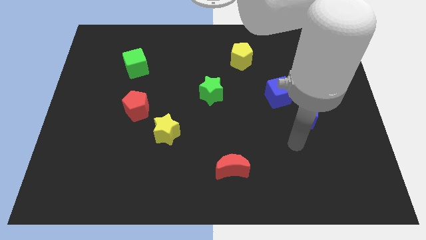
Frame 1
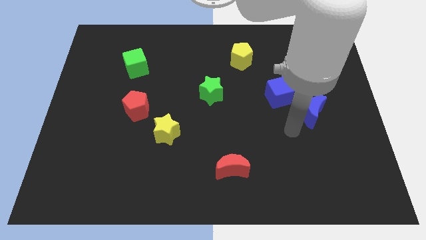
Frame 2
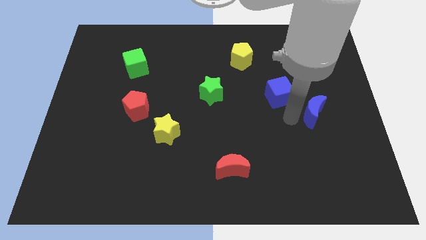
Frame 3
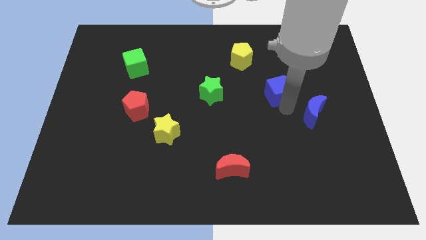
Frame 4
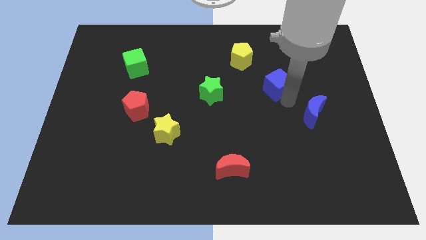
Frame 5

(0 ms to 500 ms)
separate the blue moon from the blue cube

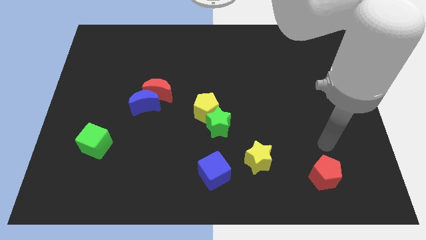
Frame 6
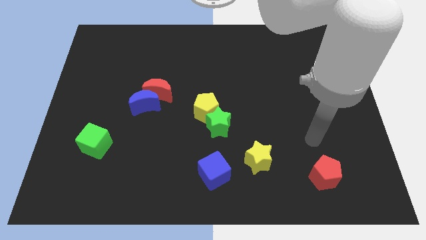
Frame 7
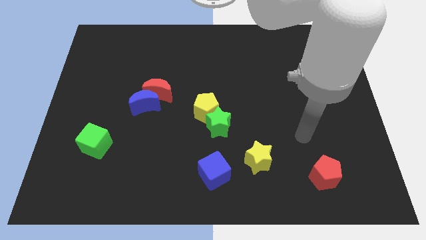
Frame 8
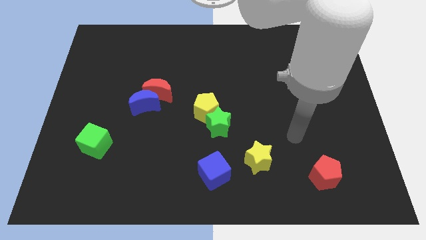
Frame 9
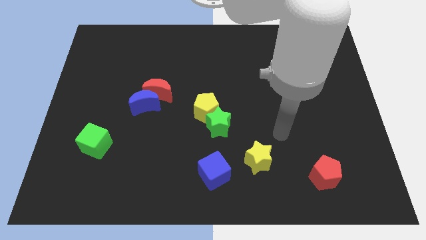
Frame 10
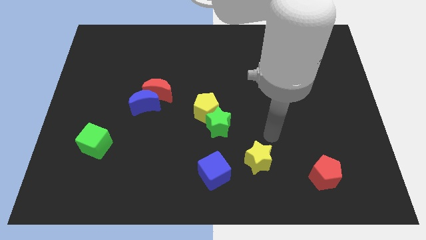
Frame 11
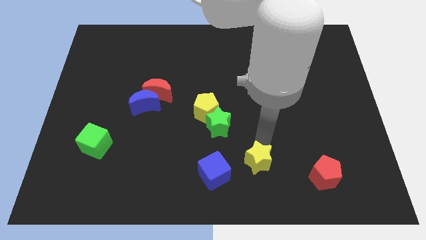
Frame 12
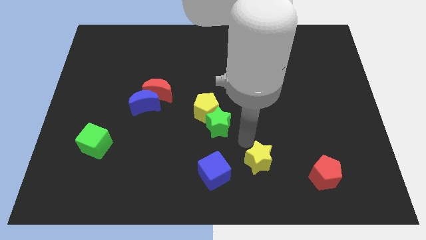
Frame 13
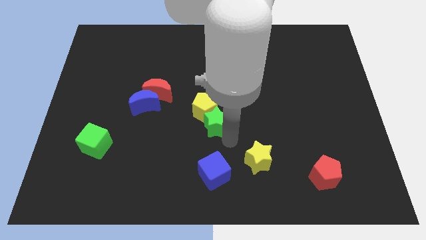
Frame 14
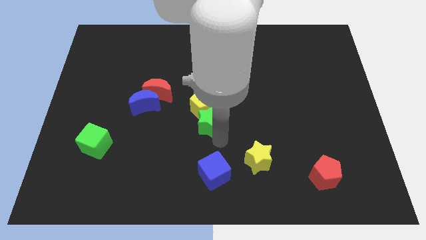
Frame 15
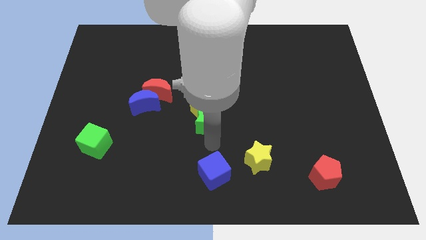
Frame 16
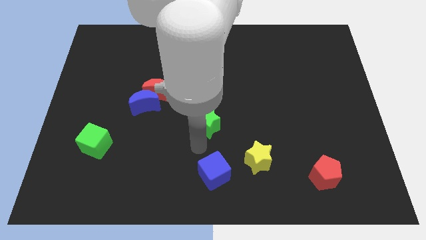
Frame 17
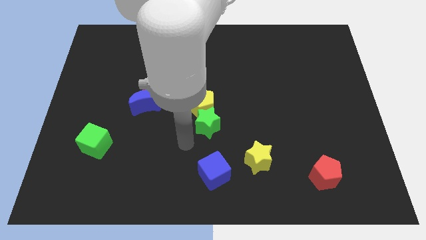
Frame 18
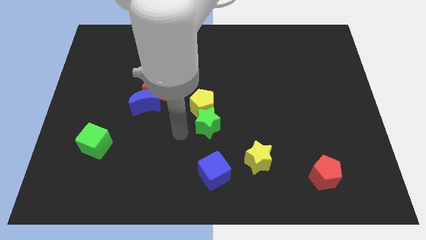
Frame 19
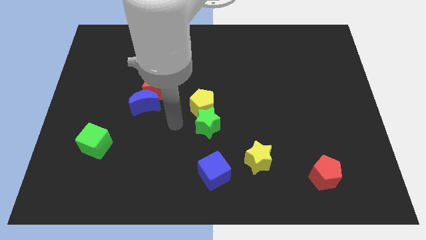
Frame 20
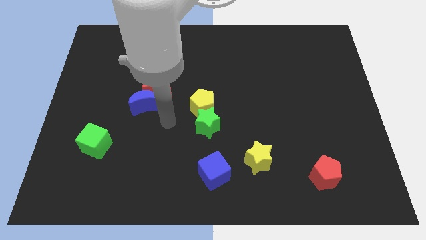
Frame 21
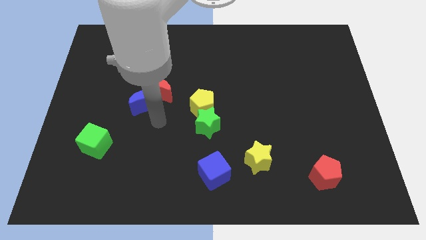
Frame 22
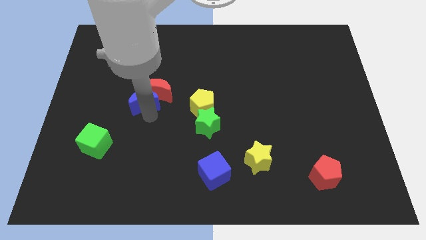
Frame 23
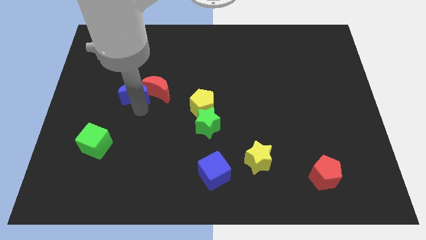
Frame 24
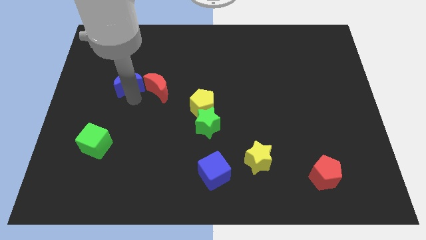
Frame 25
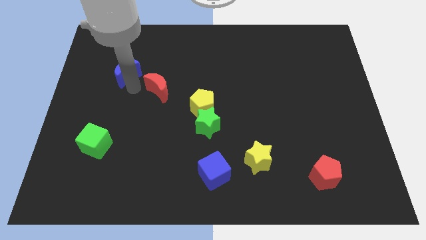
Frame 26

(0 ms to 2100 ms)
move the red moon away from the blue moon

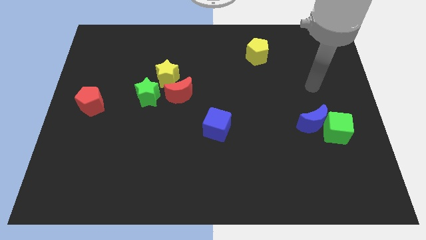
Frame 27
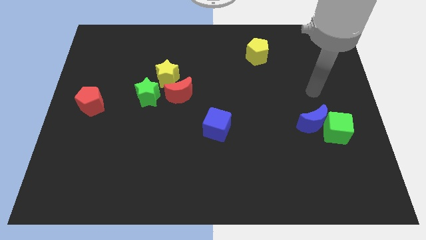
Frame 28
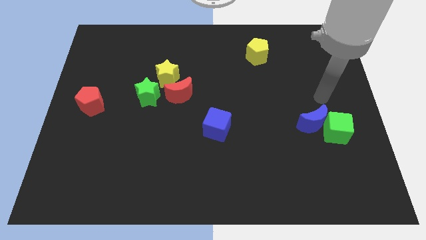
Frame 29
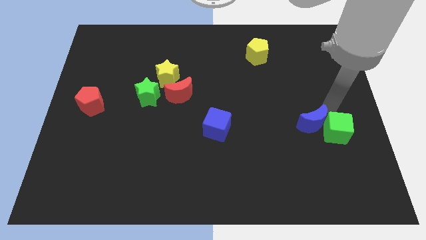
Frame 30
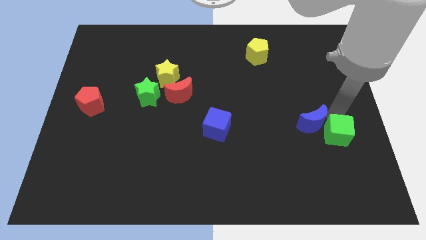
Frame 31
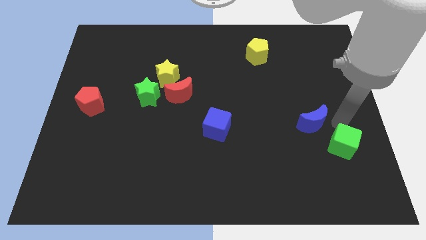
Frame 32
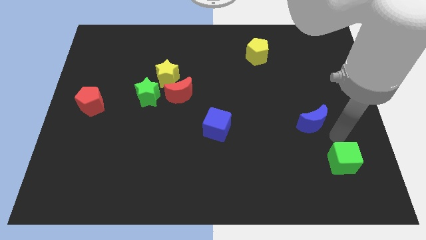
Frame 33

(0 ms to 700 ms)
move the blue moon away from the green cube

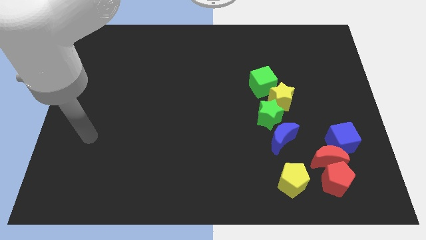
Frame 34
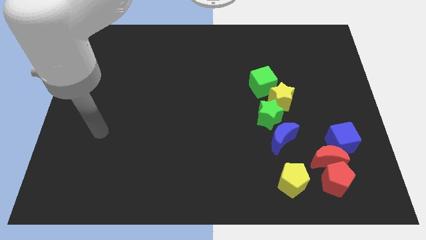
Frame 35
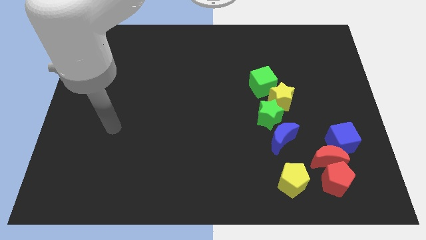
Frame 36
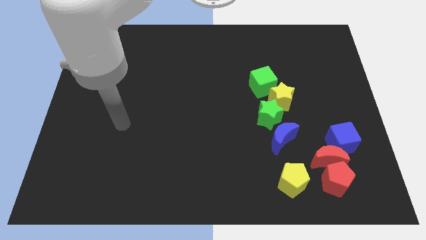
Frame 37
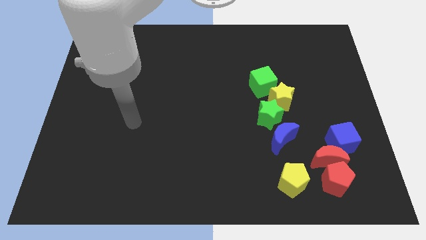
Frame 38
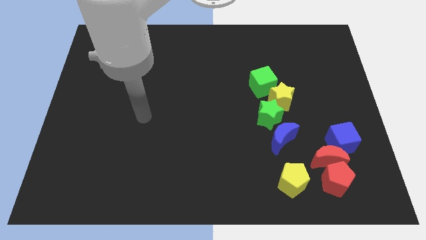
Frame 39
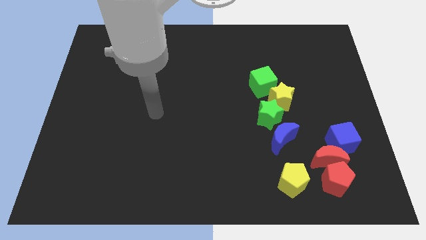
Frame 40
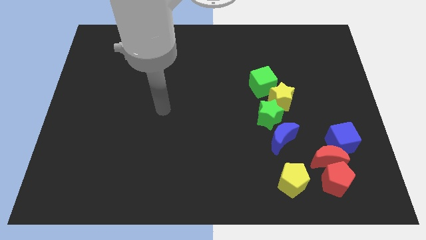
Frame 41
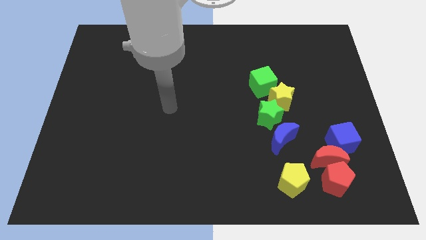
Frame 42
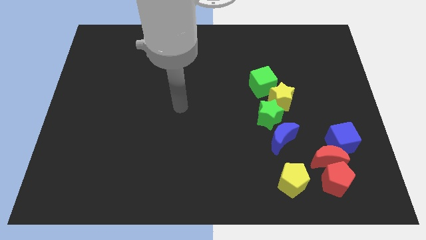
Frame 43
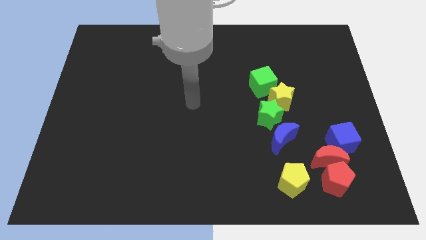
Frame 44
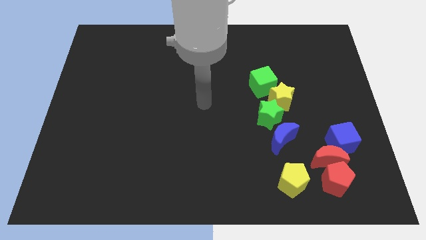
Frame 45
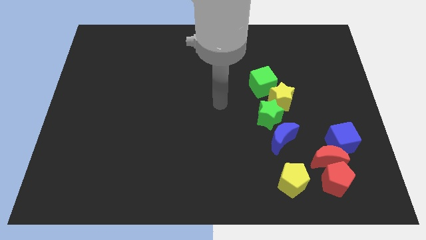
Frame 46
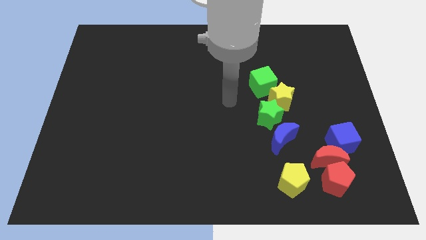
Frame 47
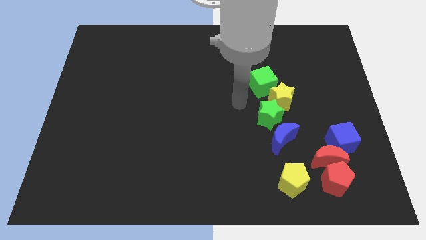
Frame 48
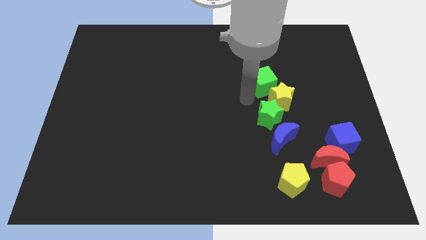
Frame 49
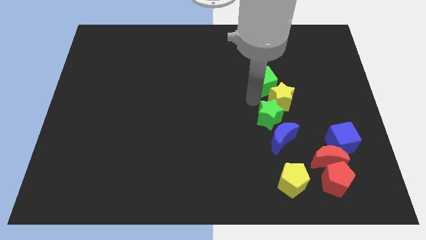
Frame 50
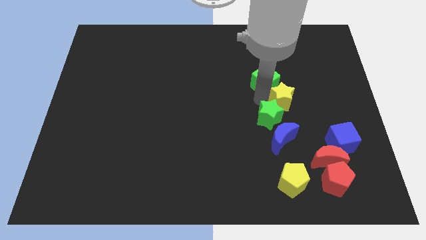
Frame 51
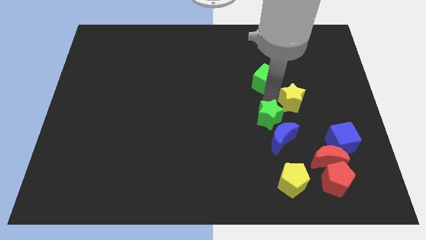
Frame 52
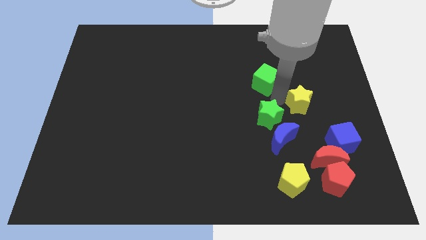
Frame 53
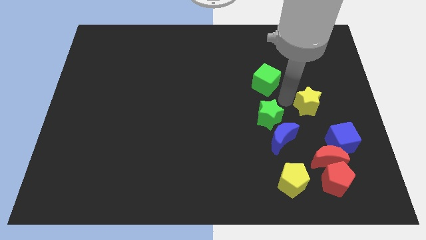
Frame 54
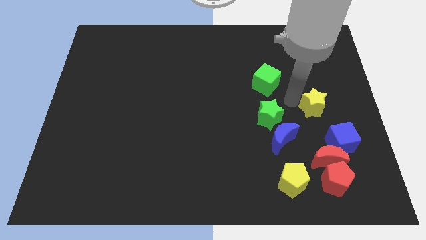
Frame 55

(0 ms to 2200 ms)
pull the yellow star apart from the green star and green cube

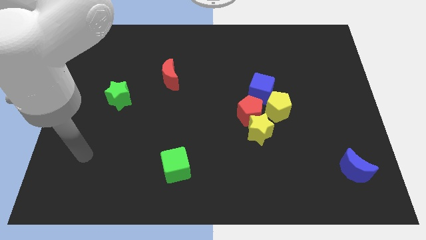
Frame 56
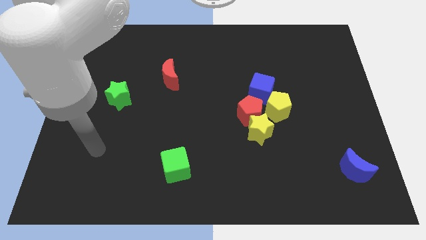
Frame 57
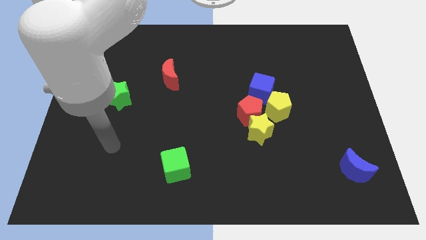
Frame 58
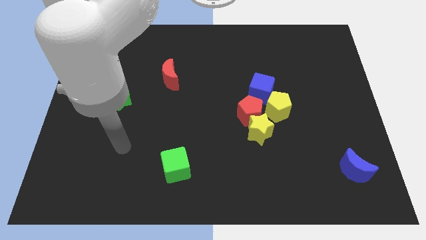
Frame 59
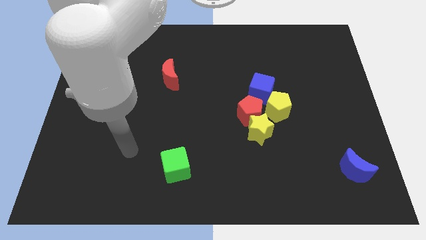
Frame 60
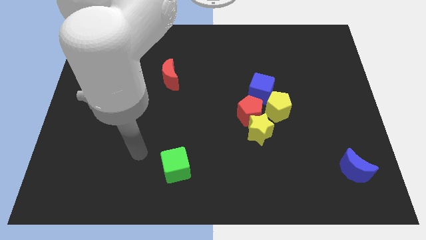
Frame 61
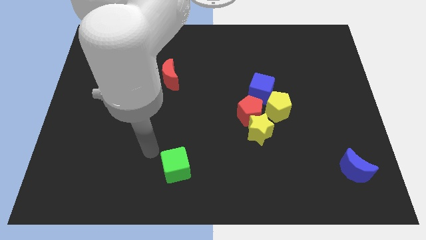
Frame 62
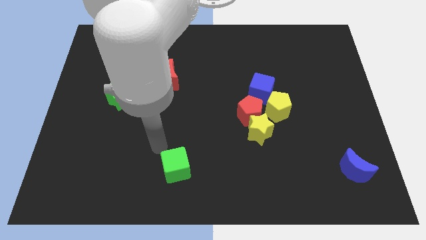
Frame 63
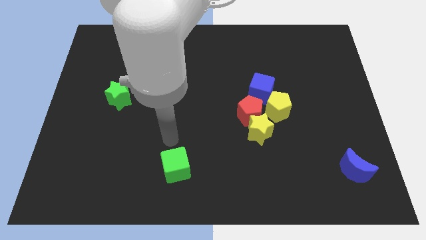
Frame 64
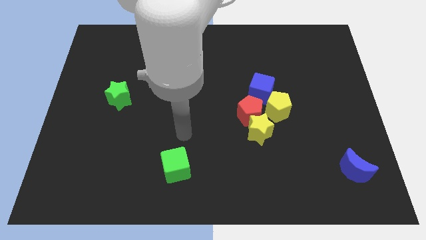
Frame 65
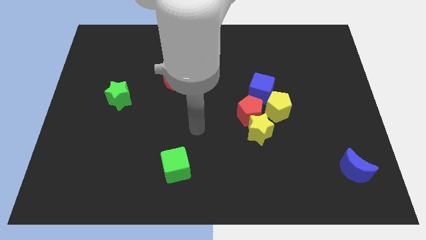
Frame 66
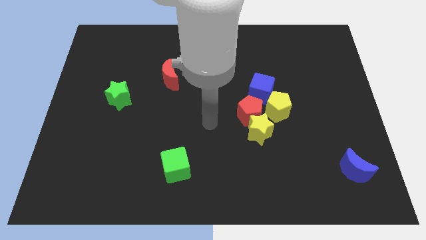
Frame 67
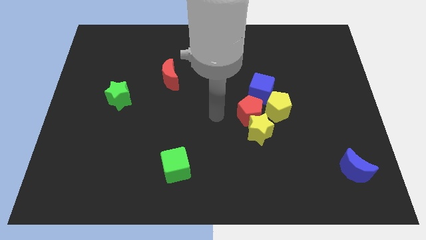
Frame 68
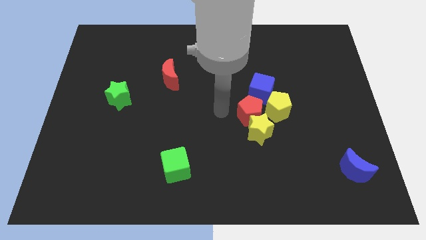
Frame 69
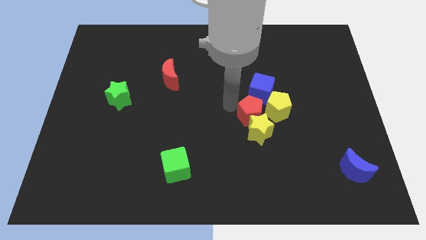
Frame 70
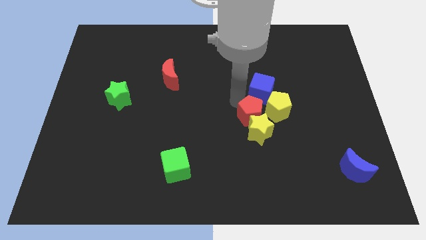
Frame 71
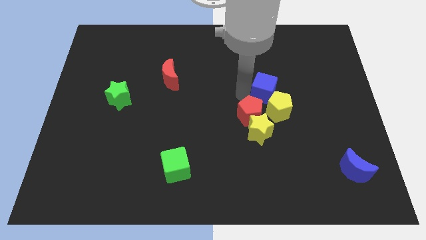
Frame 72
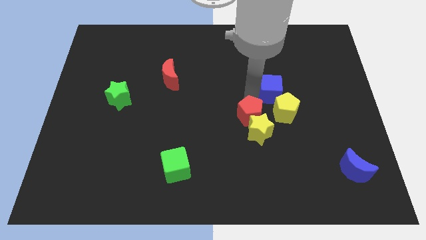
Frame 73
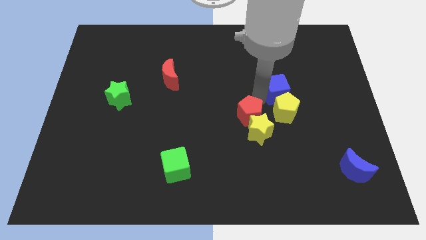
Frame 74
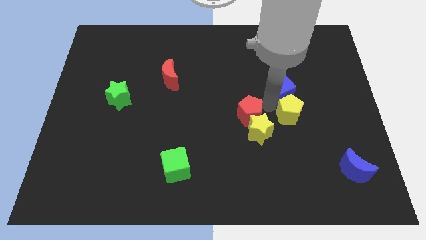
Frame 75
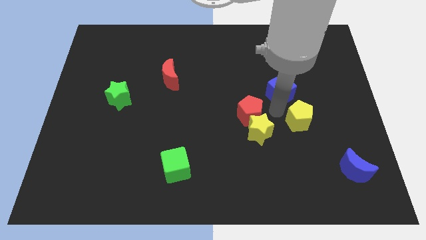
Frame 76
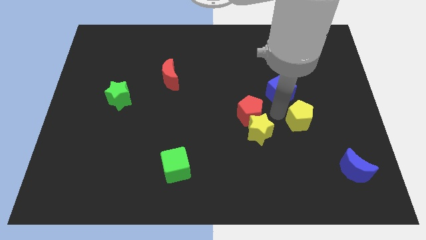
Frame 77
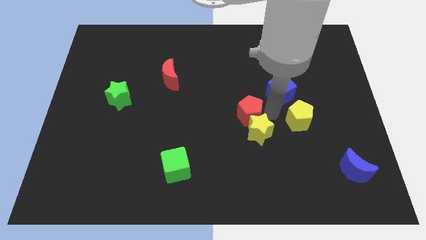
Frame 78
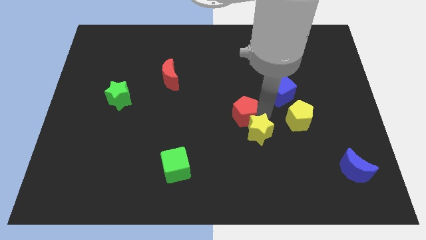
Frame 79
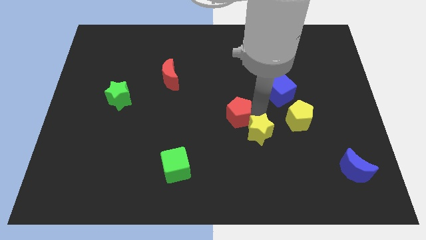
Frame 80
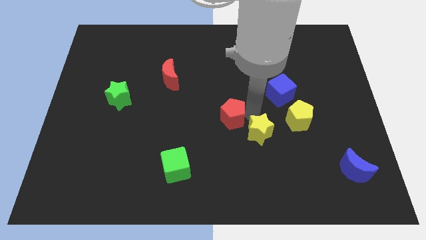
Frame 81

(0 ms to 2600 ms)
pull the red pentagon apart from the yellow star, yellow pentagon, and blue cube

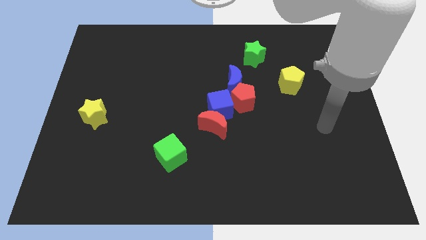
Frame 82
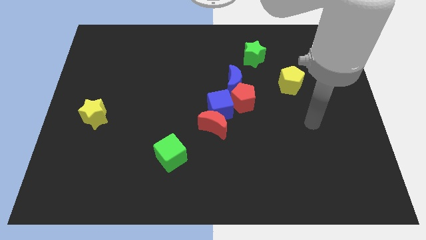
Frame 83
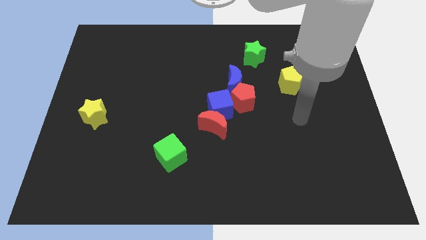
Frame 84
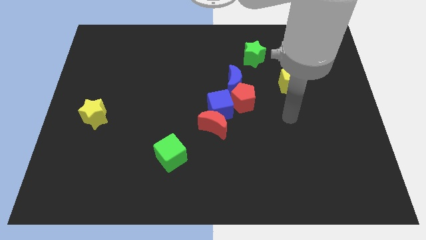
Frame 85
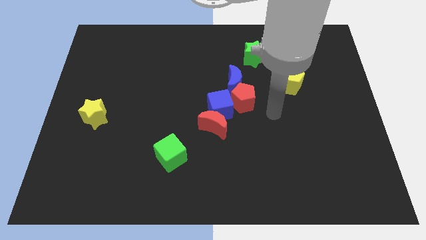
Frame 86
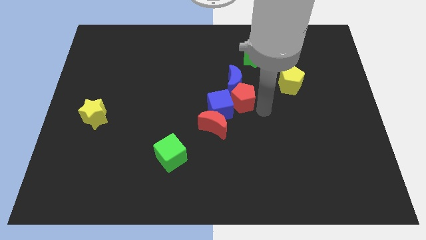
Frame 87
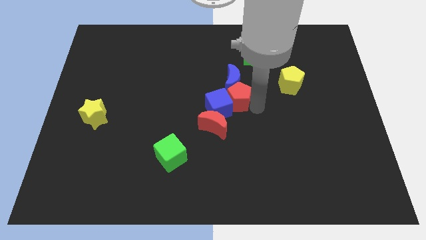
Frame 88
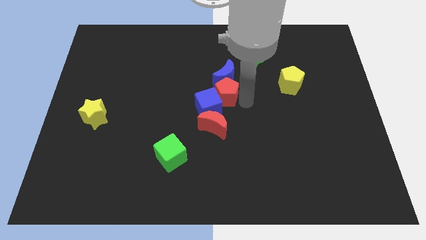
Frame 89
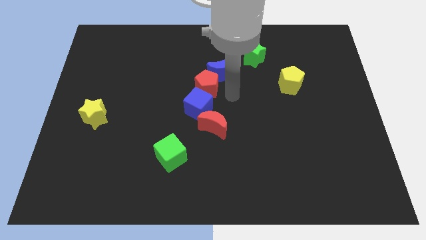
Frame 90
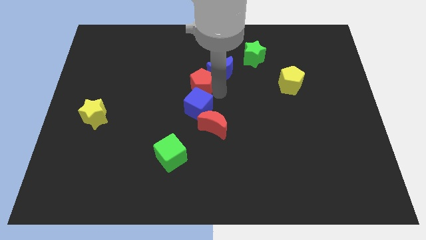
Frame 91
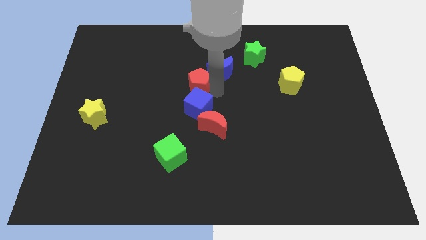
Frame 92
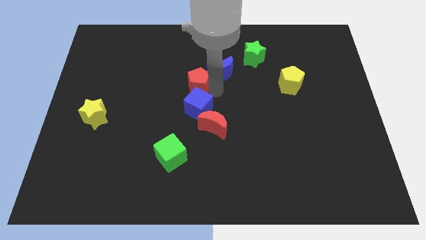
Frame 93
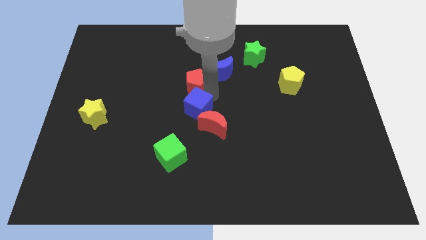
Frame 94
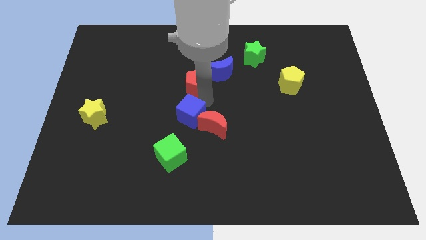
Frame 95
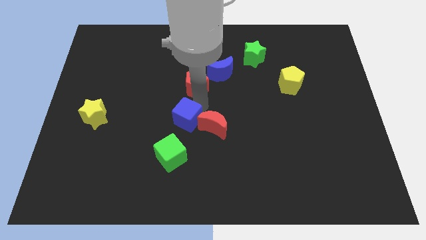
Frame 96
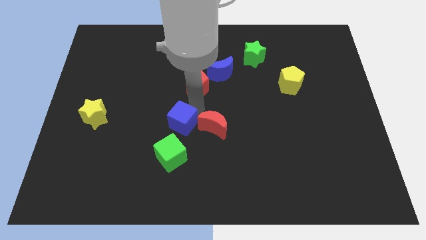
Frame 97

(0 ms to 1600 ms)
move the blue cube away from the red moon, red pentagon, and blue moon
